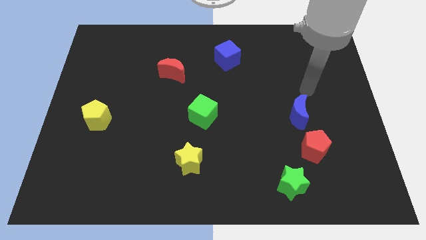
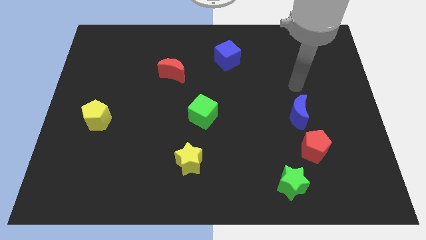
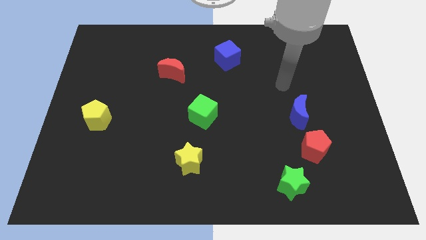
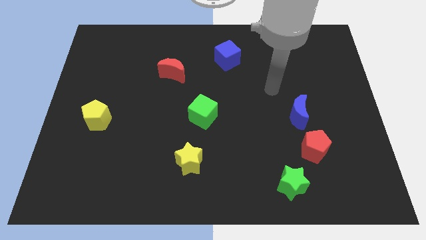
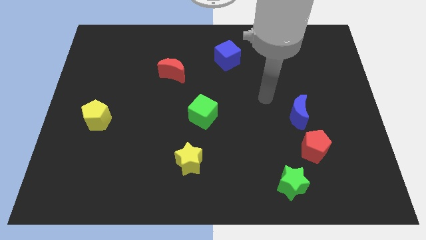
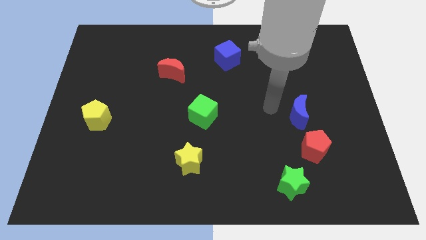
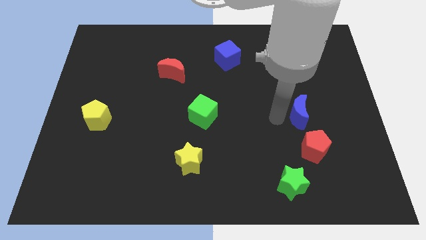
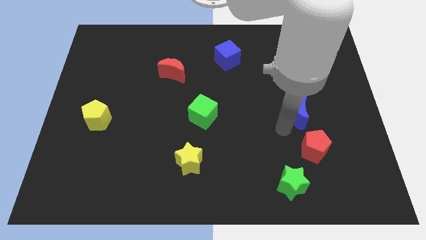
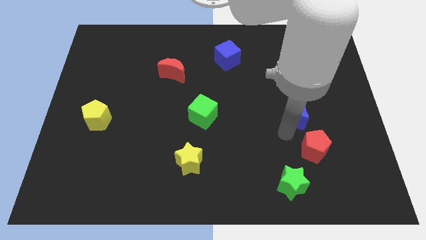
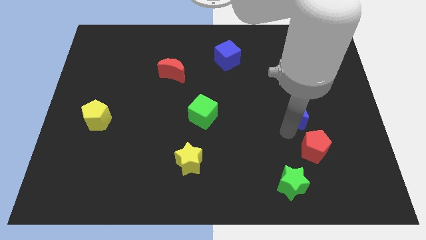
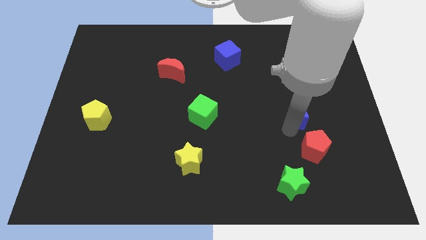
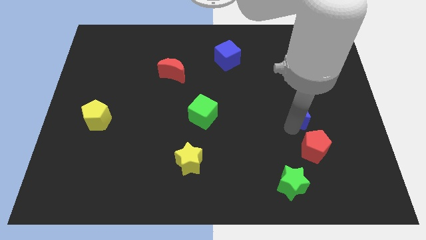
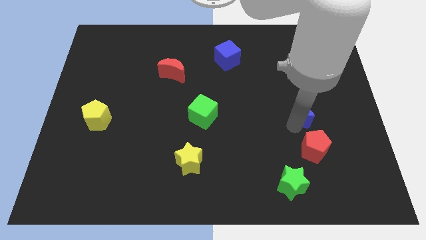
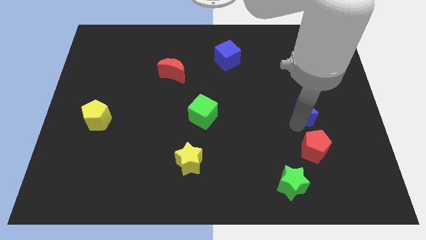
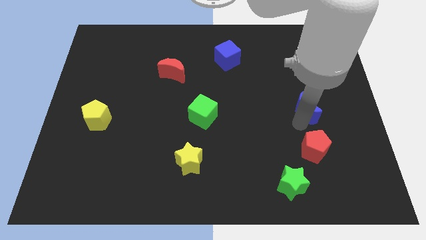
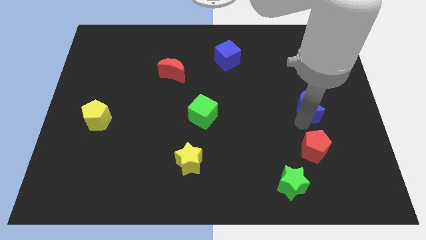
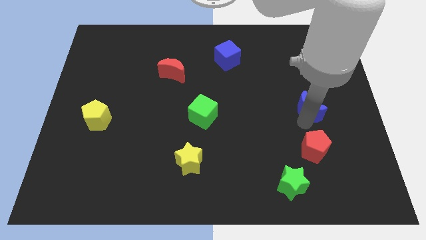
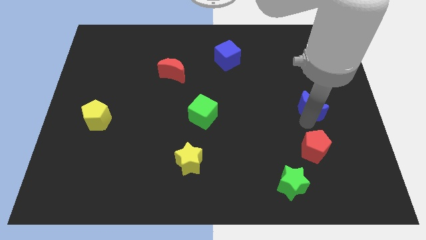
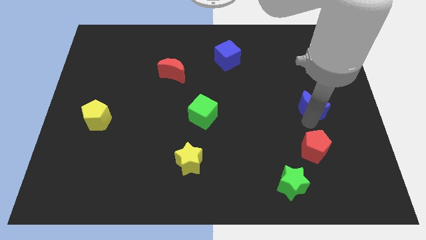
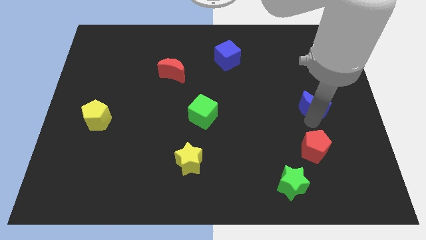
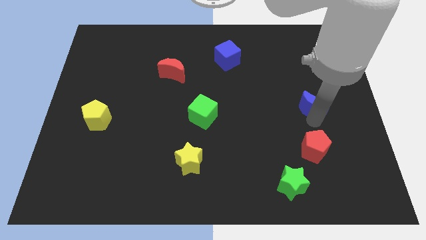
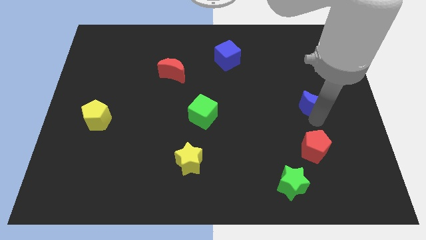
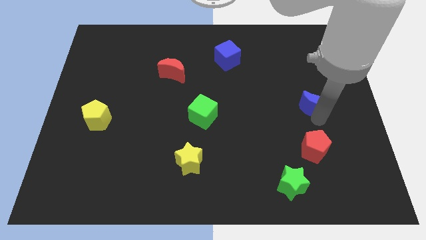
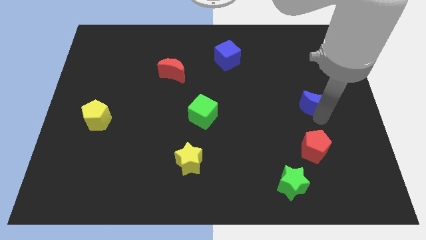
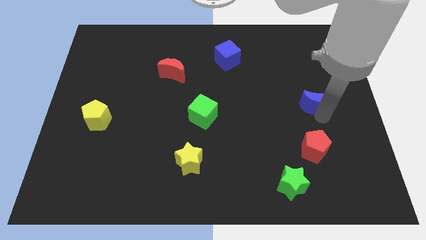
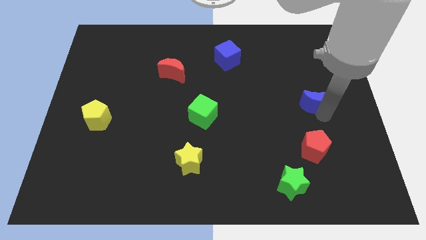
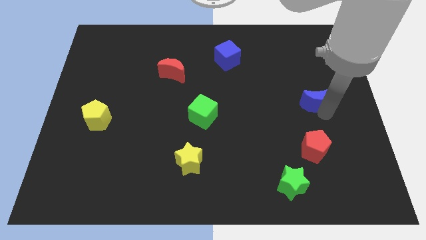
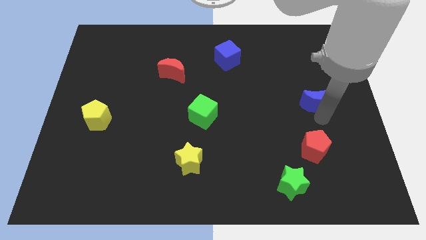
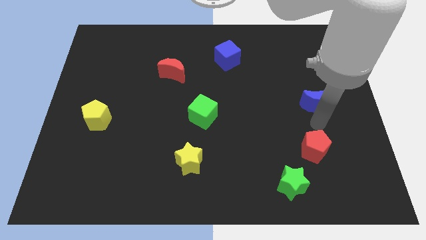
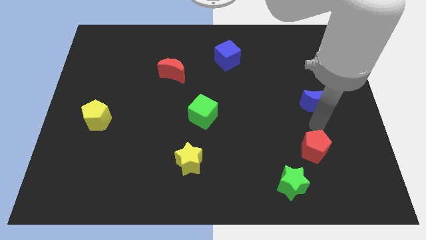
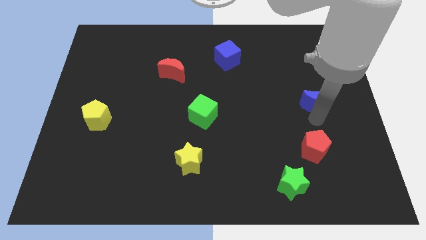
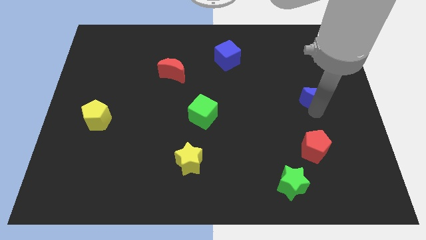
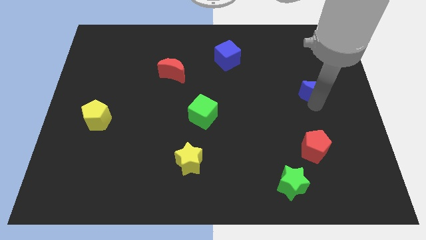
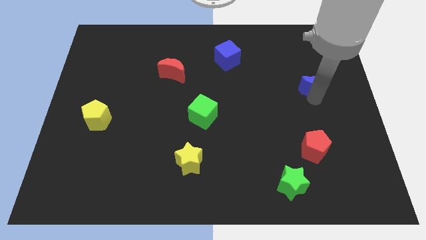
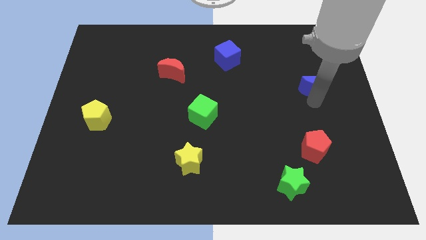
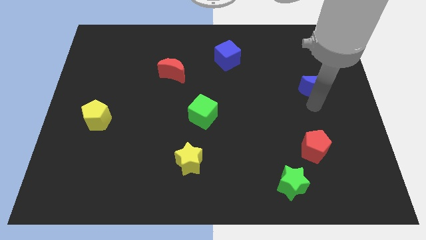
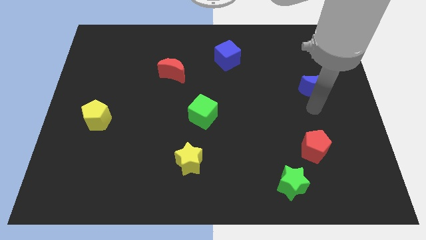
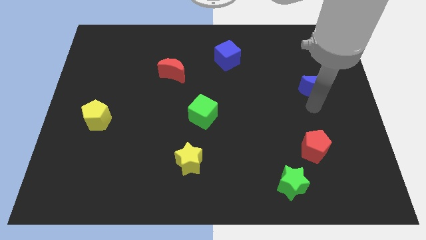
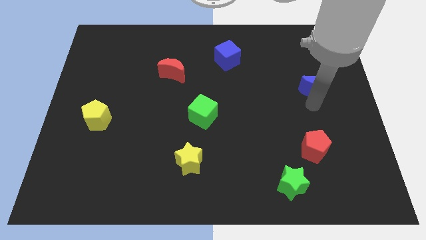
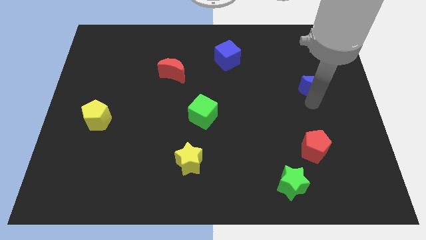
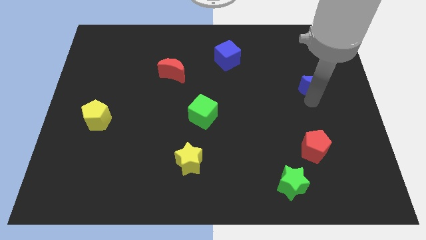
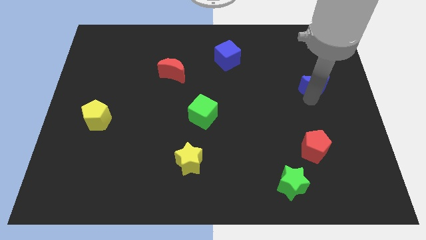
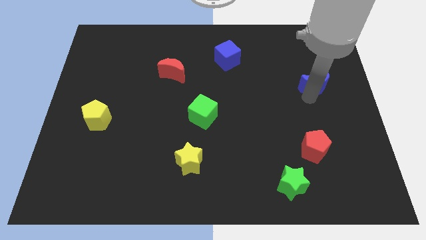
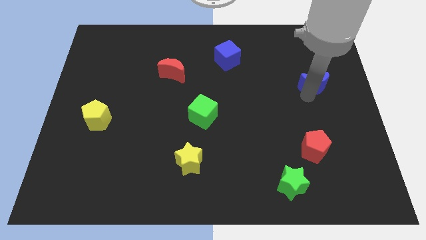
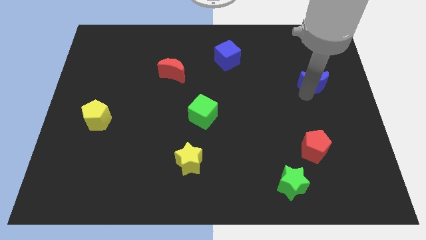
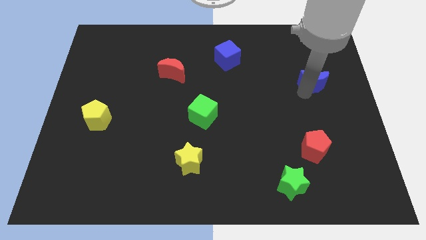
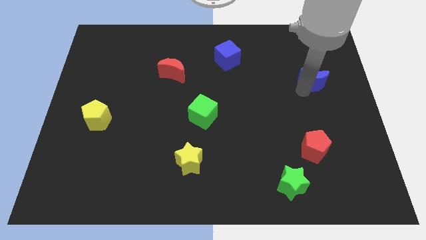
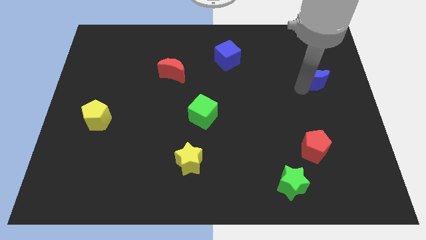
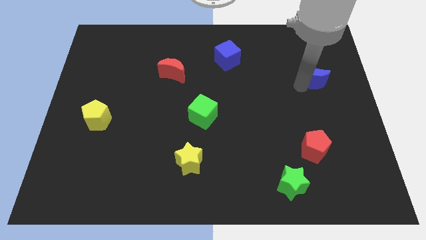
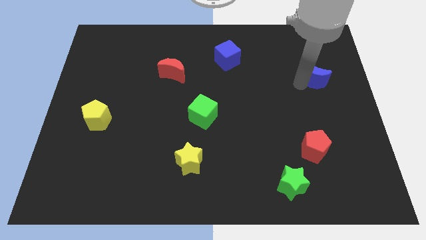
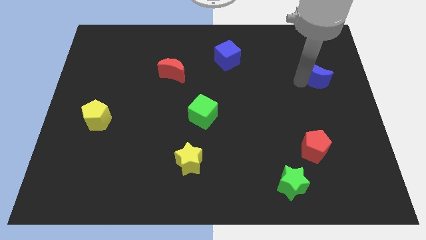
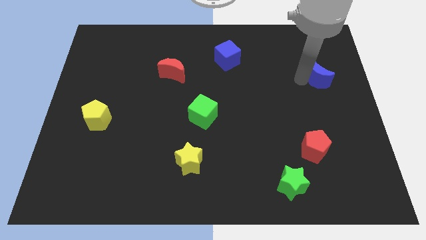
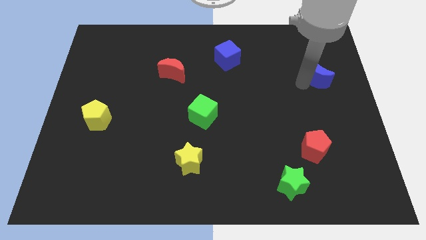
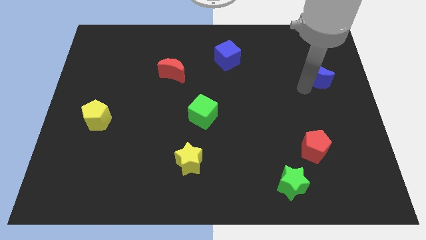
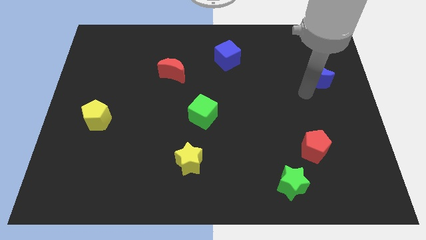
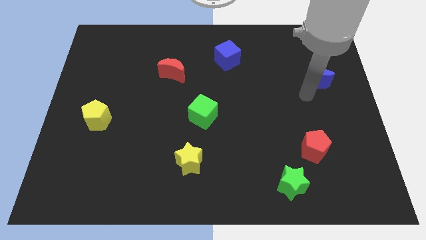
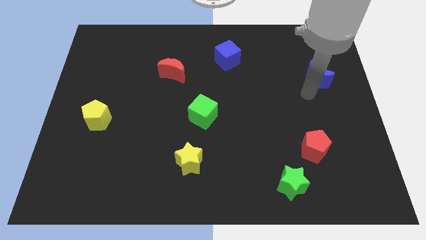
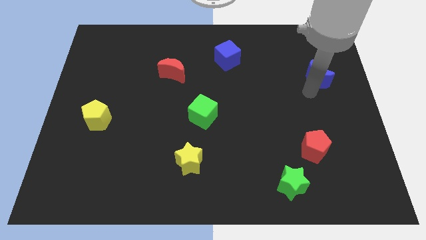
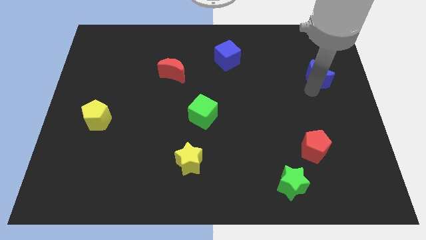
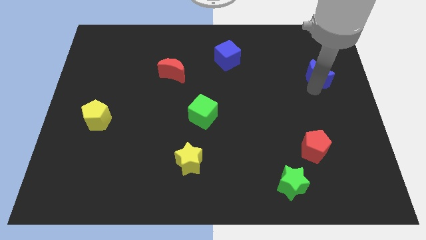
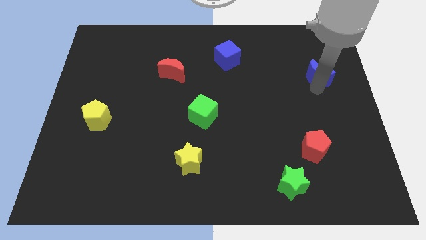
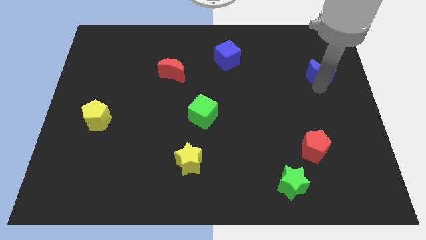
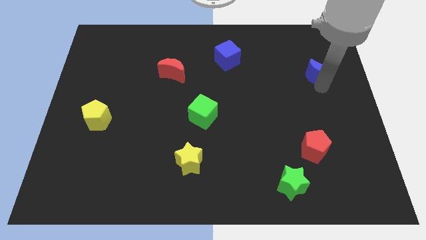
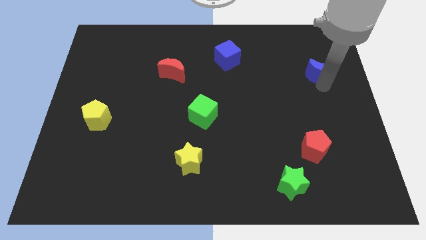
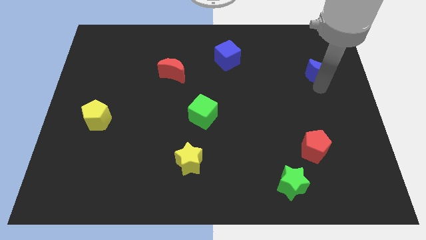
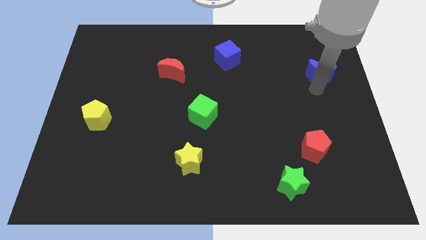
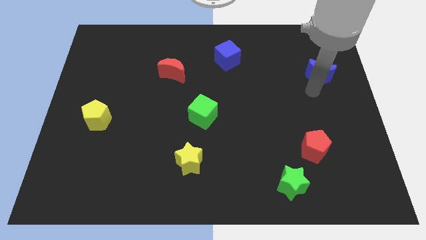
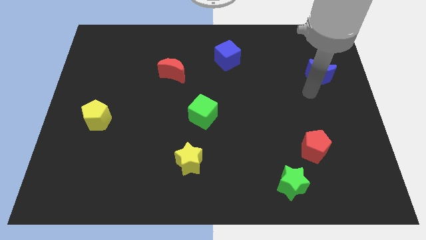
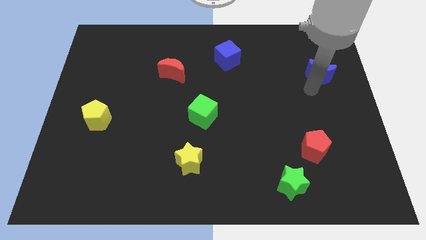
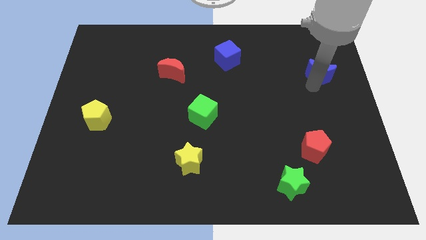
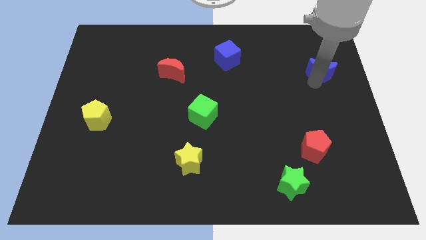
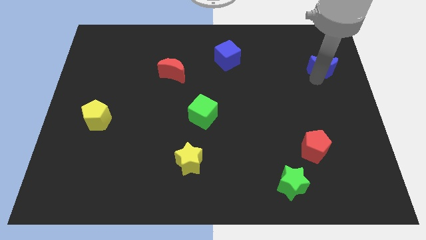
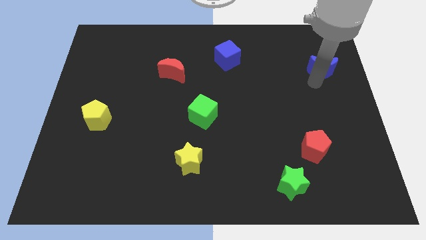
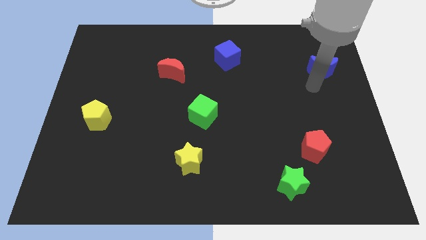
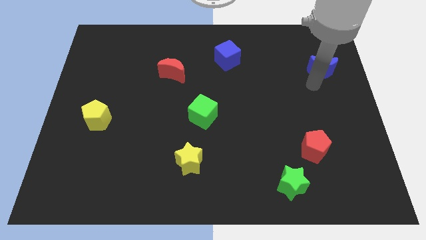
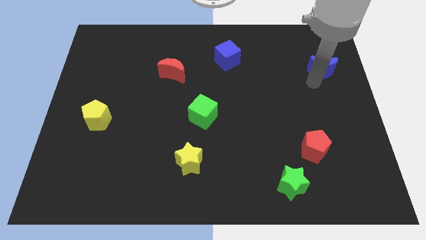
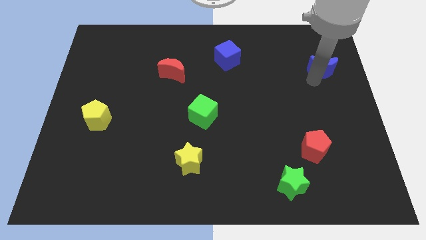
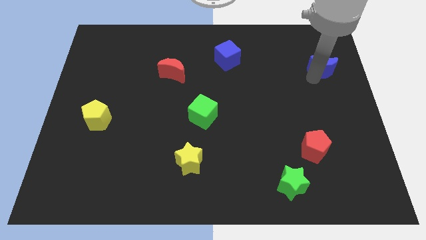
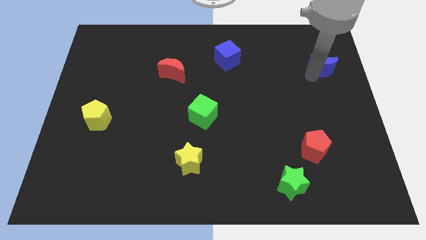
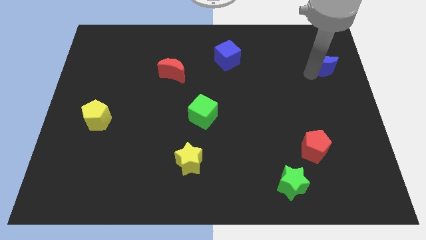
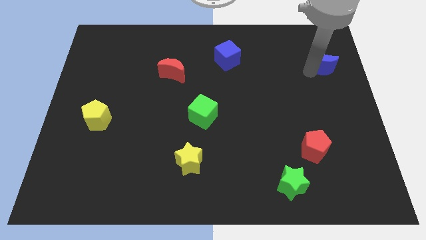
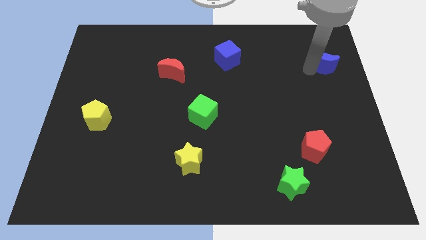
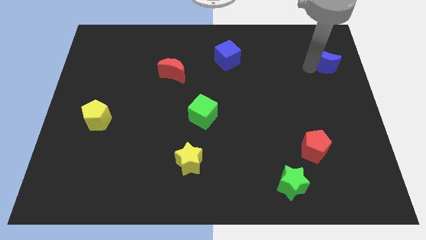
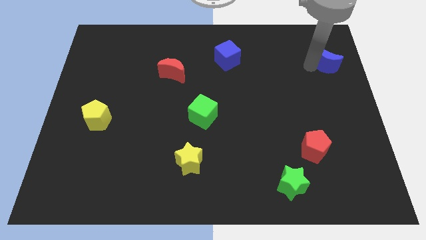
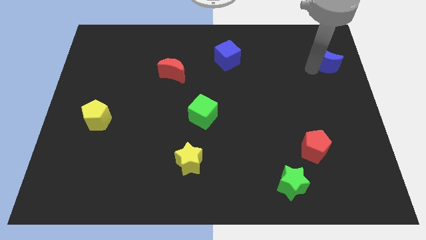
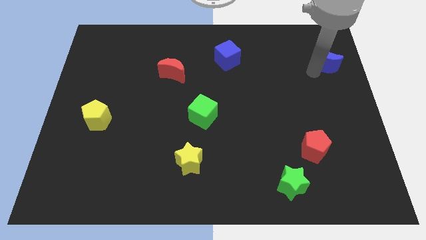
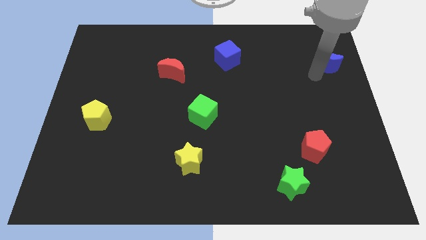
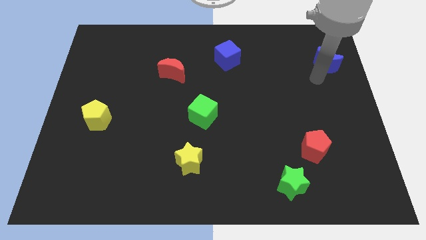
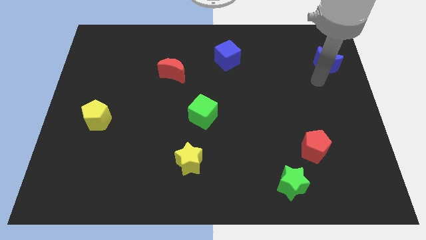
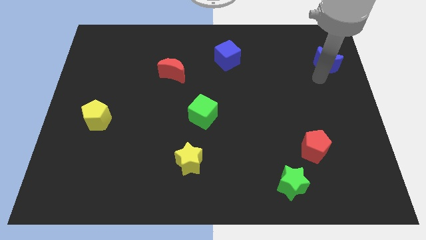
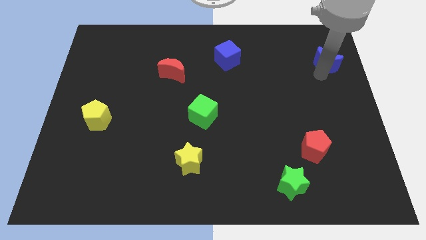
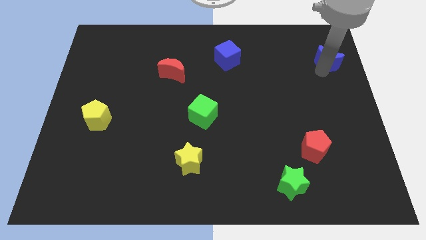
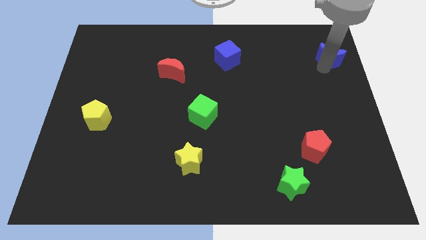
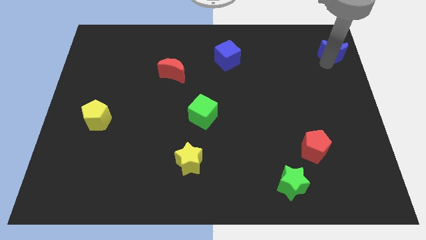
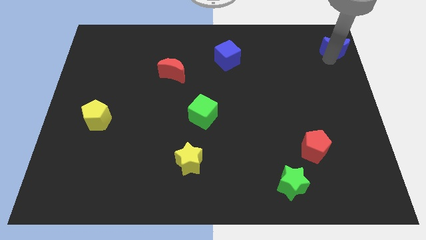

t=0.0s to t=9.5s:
move the blue moon to the top right of the board
